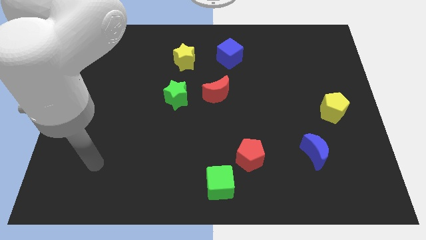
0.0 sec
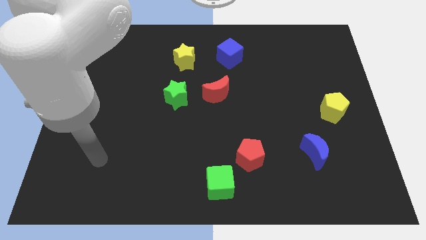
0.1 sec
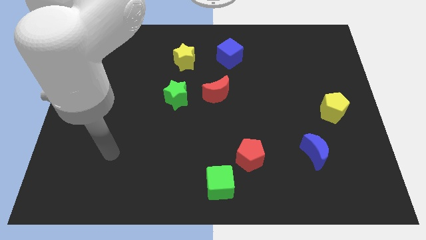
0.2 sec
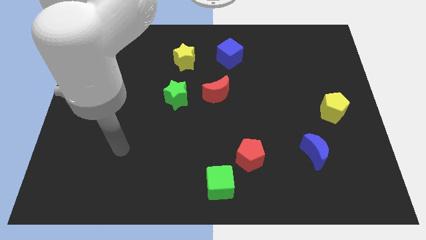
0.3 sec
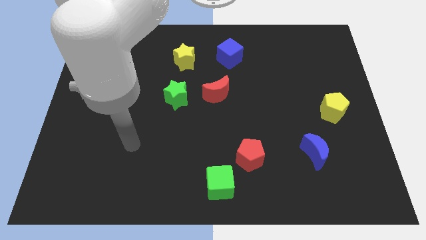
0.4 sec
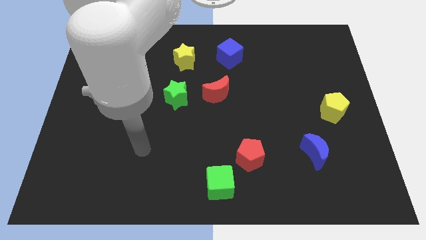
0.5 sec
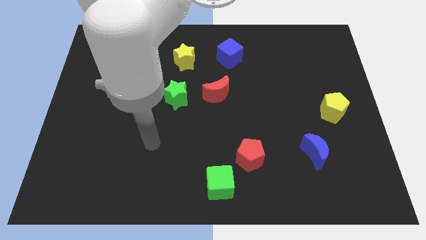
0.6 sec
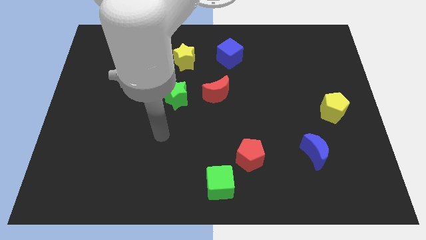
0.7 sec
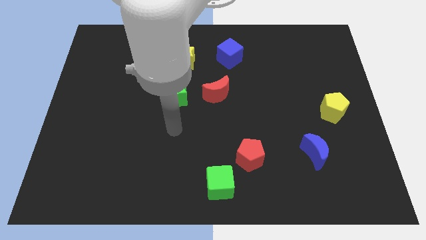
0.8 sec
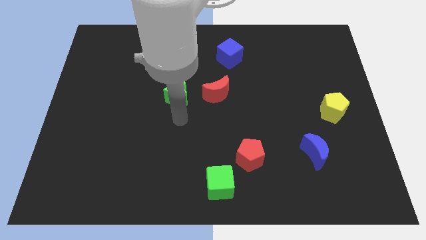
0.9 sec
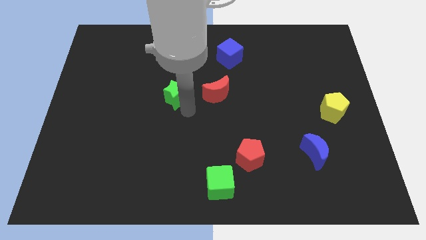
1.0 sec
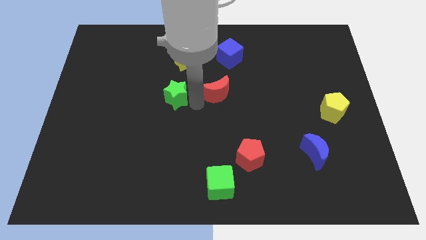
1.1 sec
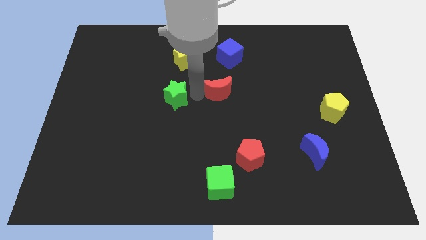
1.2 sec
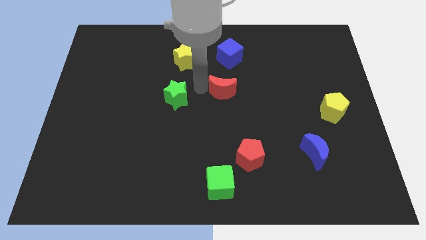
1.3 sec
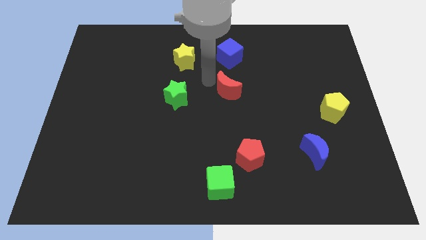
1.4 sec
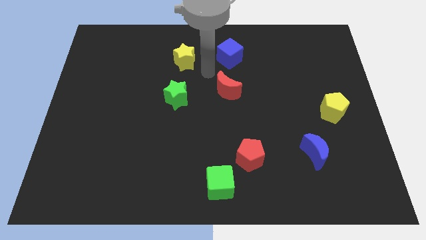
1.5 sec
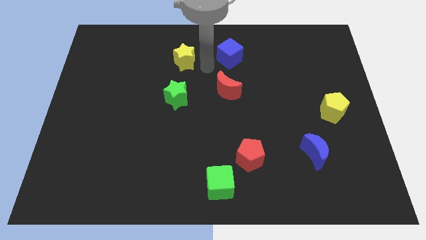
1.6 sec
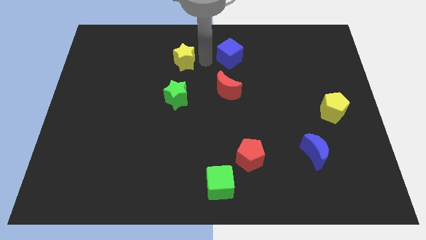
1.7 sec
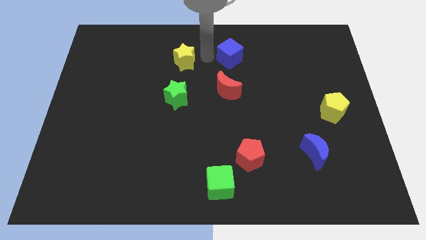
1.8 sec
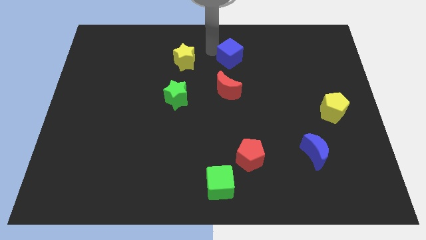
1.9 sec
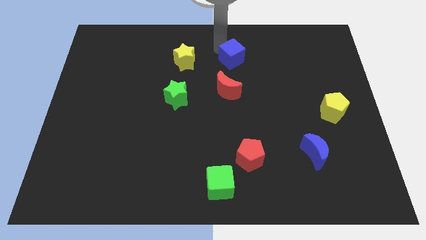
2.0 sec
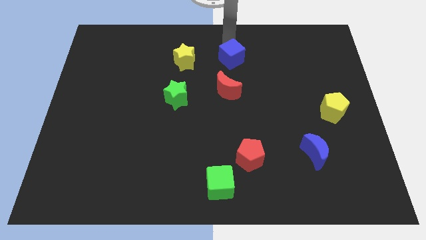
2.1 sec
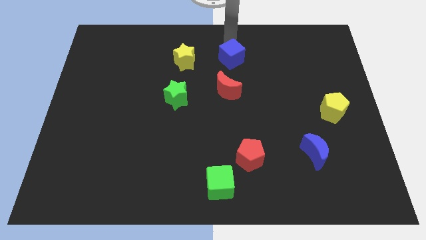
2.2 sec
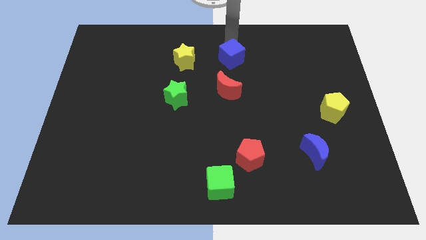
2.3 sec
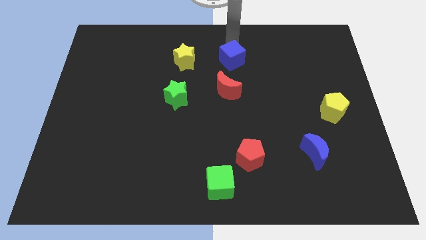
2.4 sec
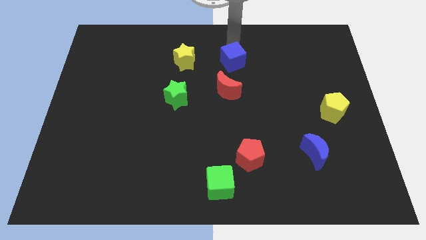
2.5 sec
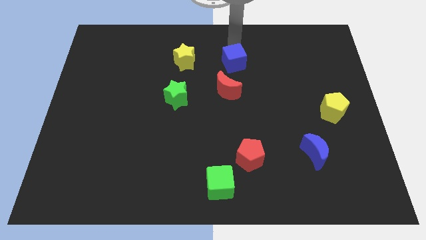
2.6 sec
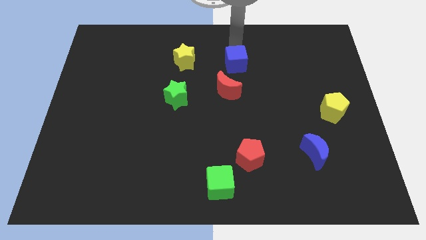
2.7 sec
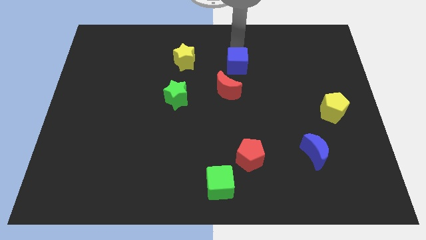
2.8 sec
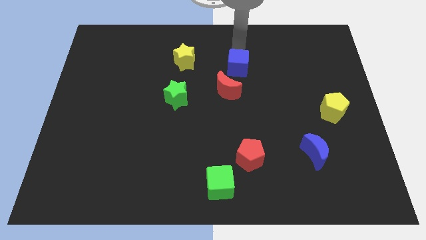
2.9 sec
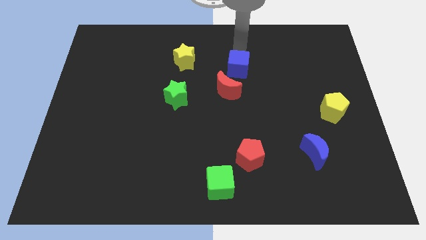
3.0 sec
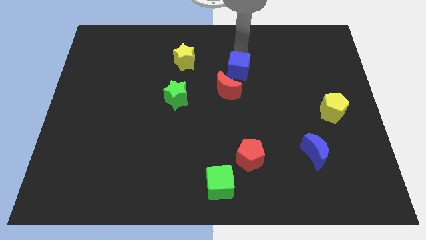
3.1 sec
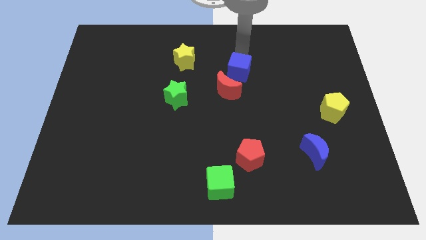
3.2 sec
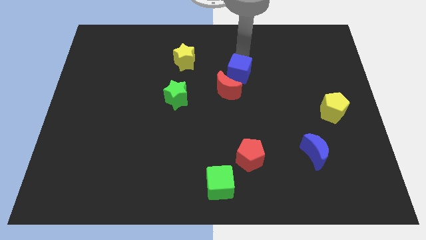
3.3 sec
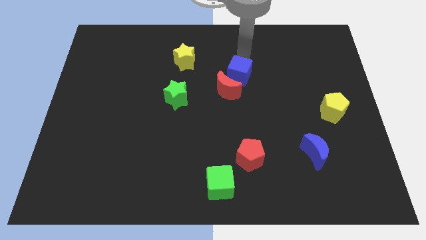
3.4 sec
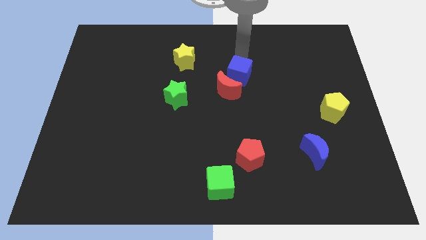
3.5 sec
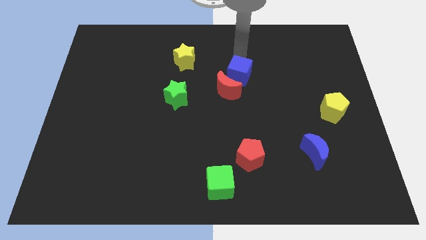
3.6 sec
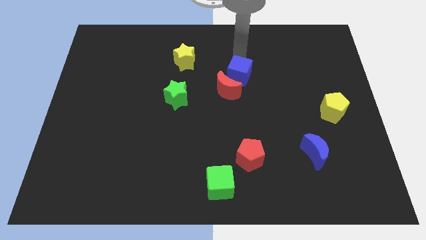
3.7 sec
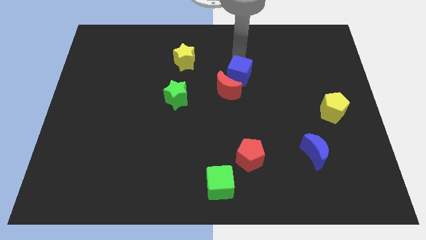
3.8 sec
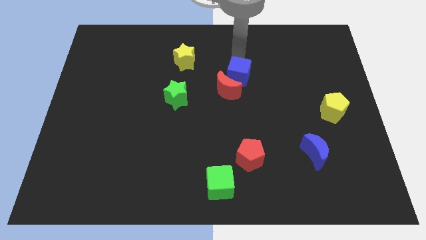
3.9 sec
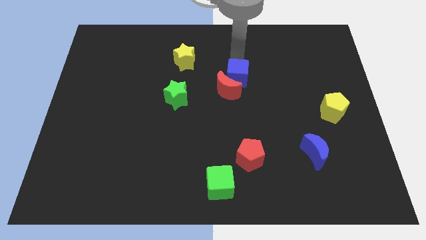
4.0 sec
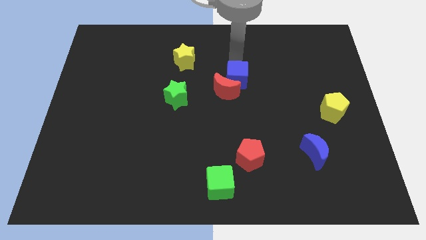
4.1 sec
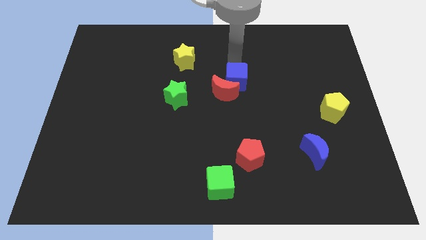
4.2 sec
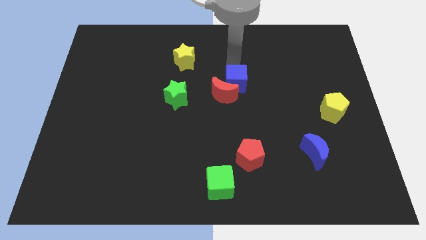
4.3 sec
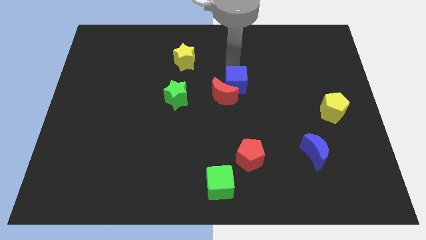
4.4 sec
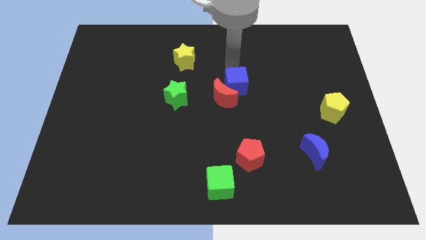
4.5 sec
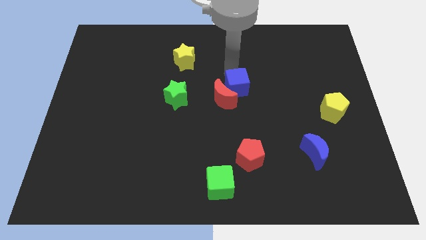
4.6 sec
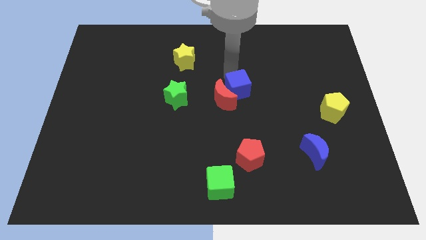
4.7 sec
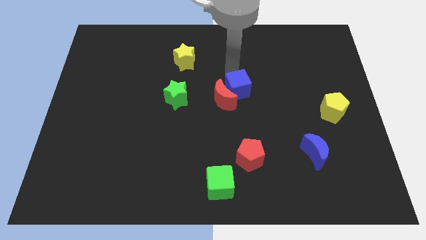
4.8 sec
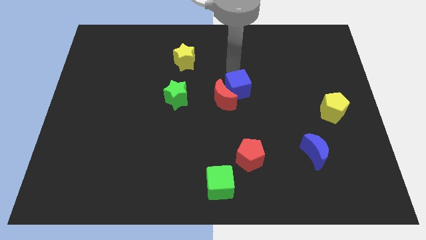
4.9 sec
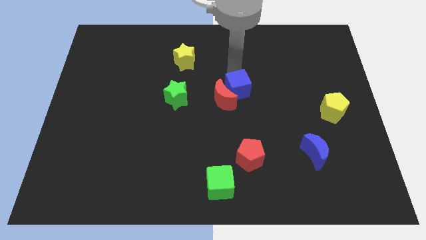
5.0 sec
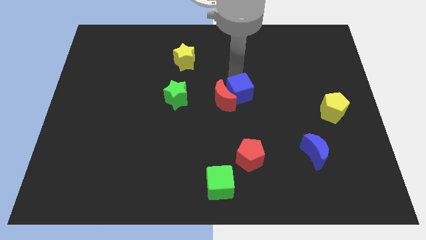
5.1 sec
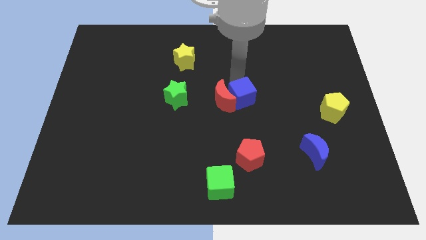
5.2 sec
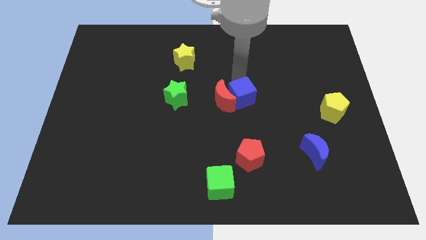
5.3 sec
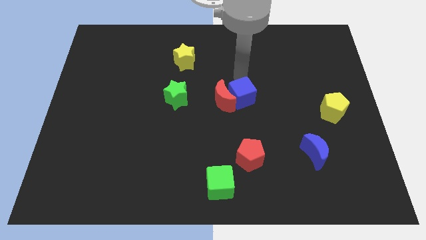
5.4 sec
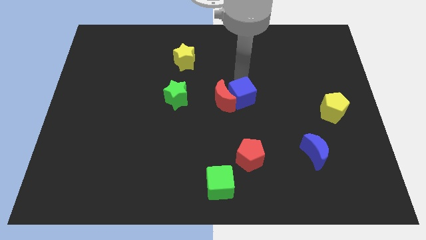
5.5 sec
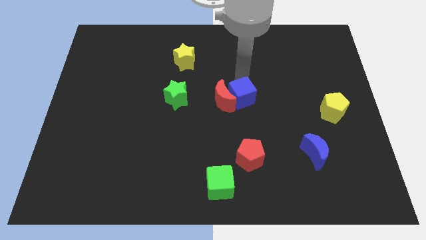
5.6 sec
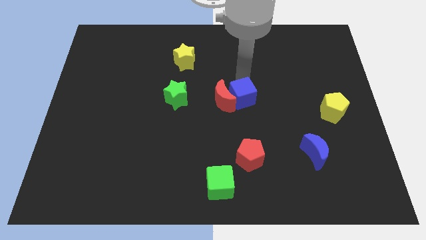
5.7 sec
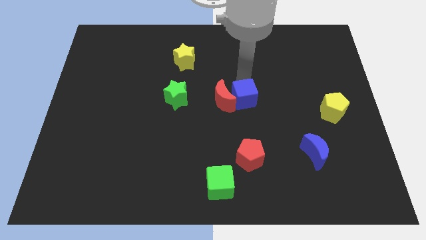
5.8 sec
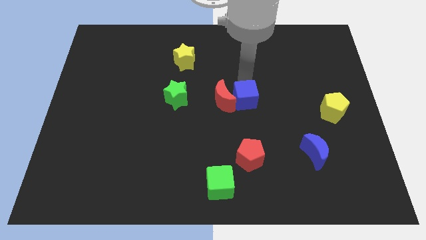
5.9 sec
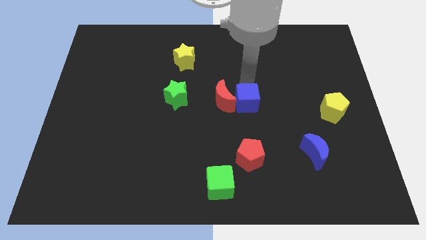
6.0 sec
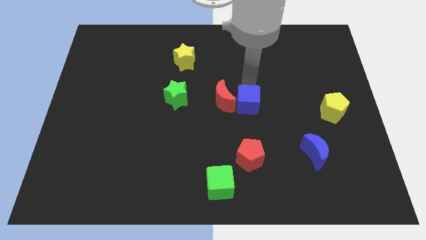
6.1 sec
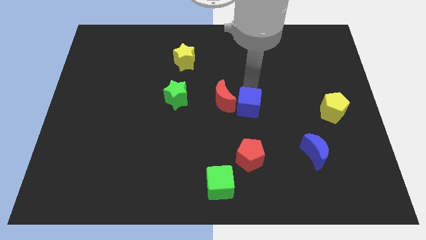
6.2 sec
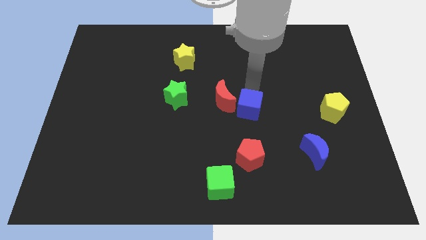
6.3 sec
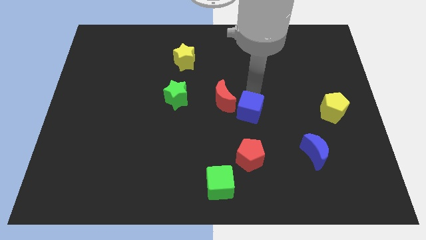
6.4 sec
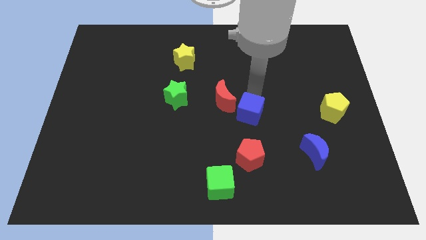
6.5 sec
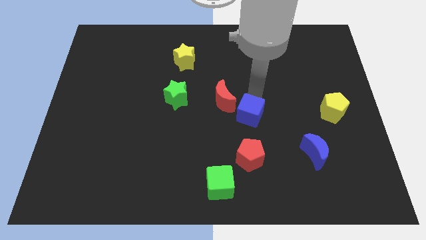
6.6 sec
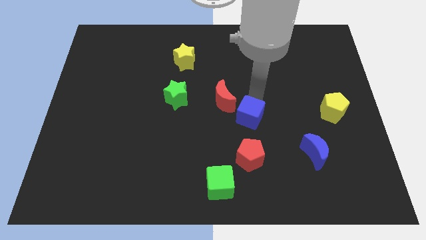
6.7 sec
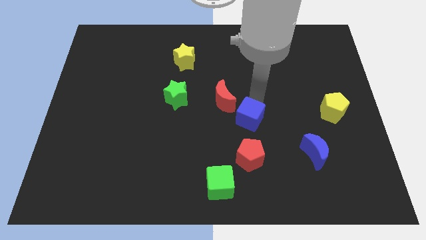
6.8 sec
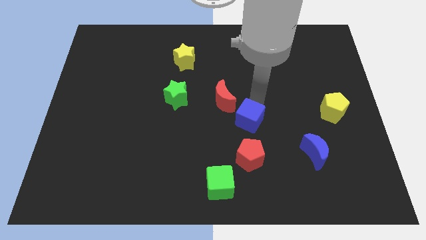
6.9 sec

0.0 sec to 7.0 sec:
slide the blue cube downwards

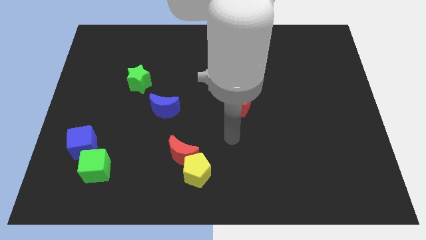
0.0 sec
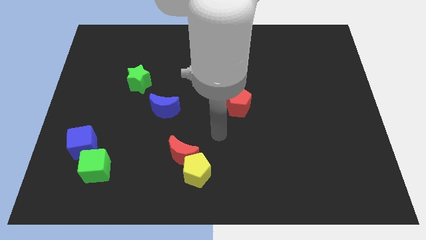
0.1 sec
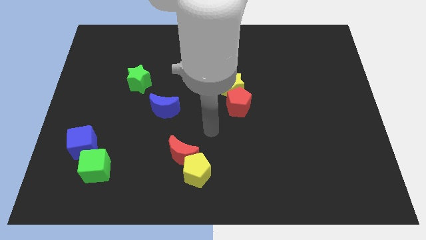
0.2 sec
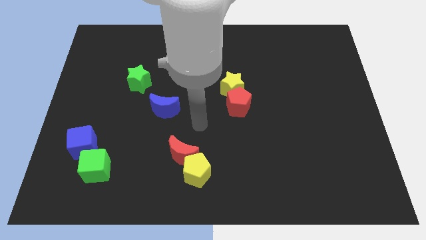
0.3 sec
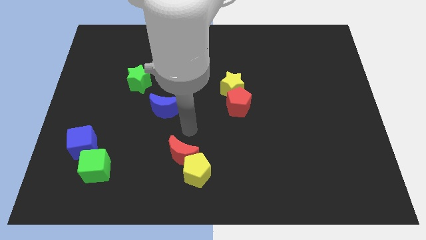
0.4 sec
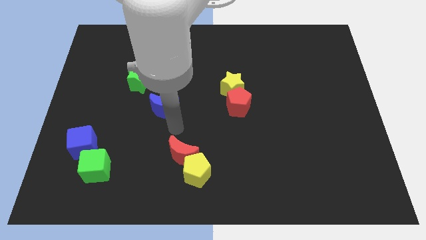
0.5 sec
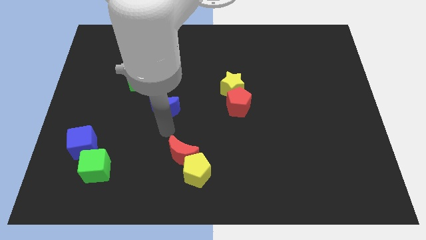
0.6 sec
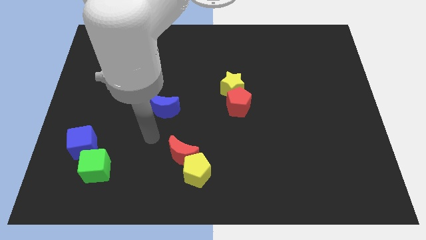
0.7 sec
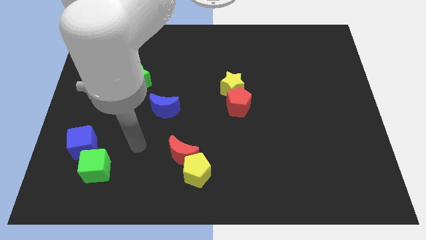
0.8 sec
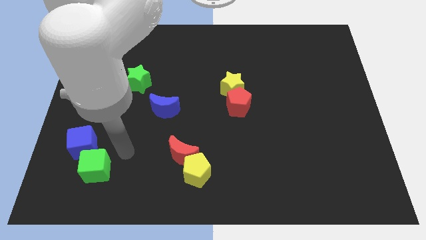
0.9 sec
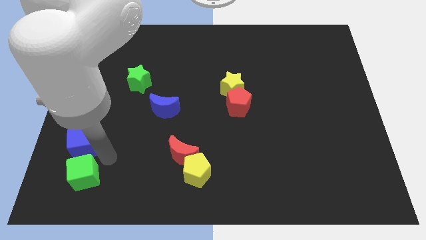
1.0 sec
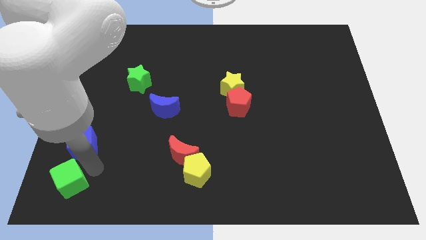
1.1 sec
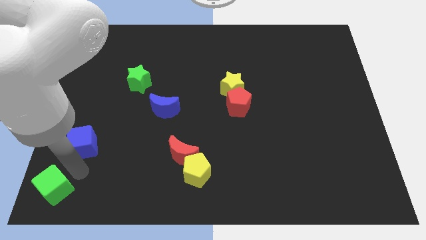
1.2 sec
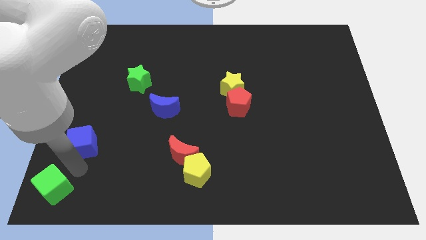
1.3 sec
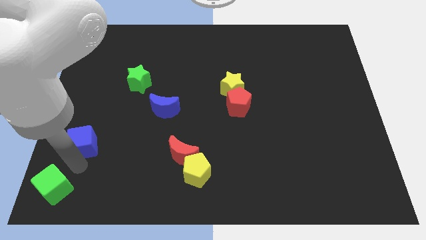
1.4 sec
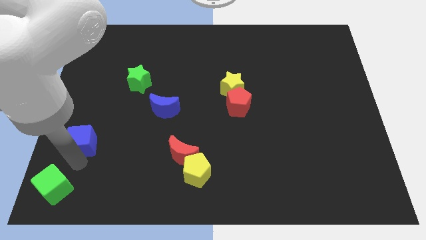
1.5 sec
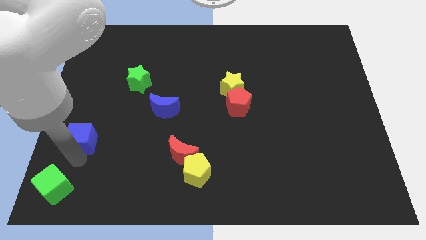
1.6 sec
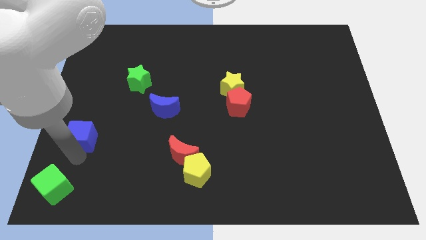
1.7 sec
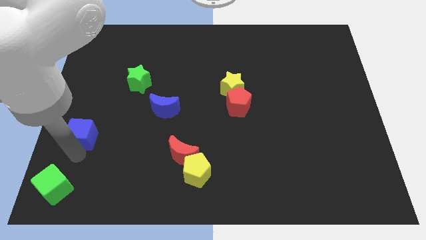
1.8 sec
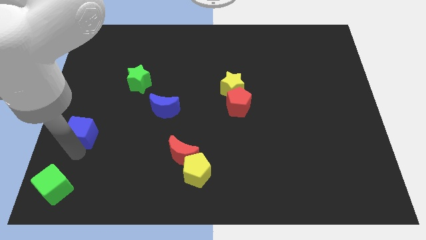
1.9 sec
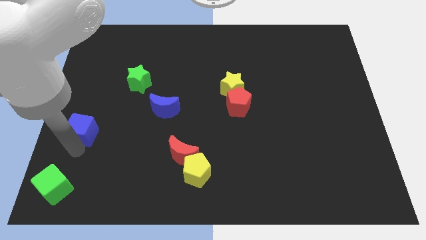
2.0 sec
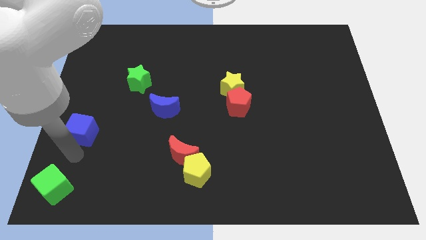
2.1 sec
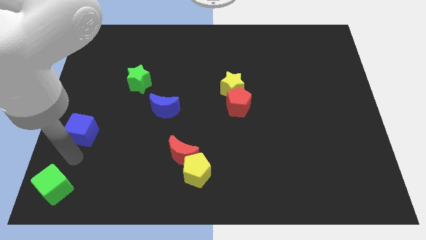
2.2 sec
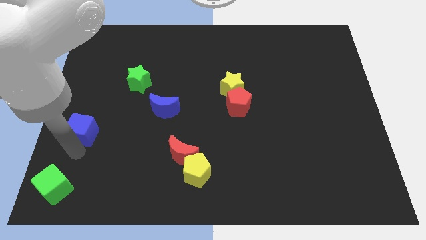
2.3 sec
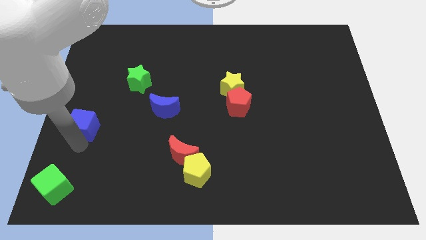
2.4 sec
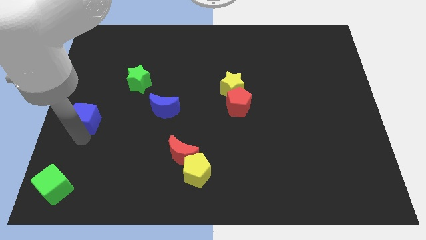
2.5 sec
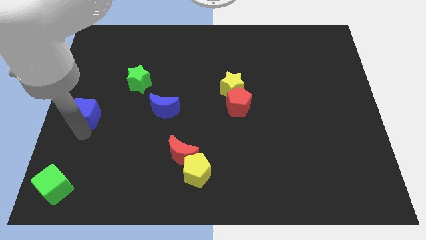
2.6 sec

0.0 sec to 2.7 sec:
slide the blue cube a bit upwards
